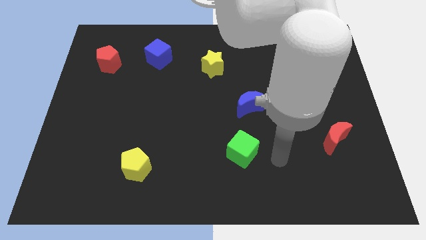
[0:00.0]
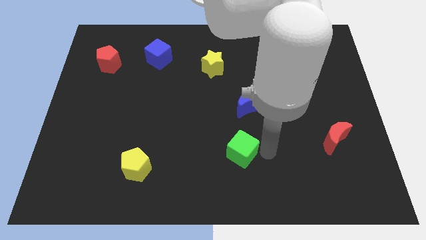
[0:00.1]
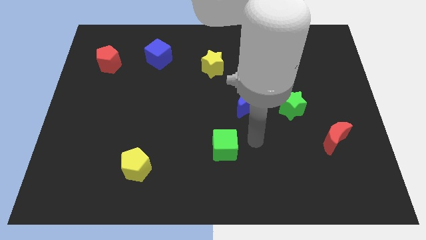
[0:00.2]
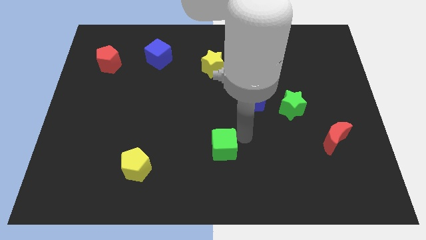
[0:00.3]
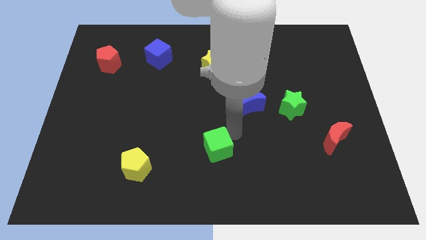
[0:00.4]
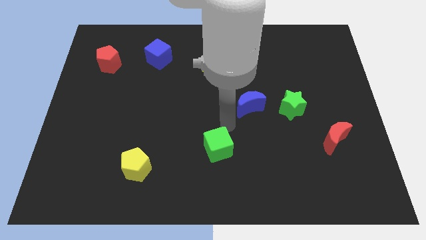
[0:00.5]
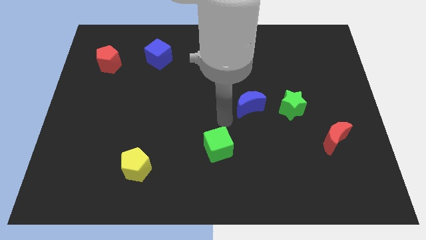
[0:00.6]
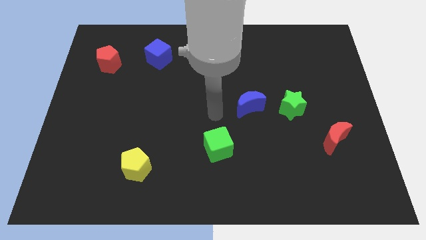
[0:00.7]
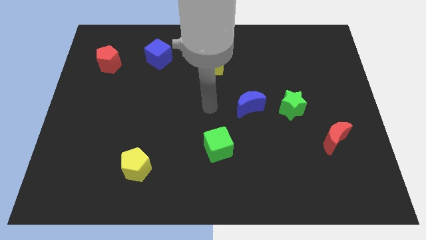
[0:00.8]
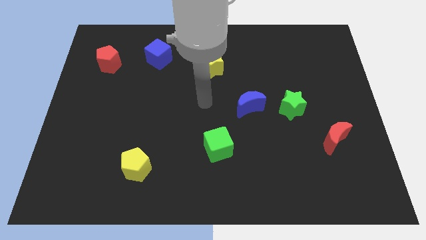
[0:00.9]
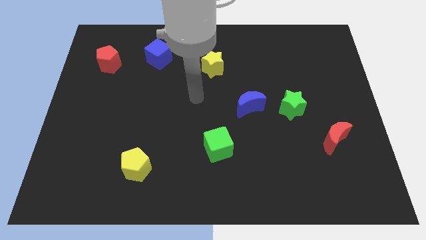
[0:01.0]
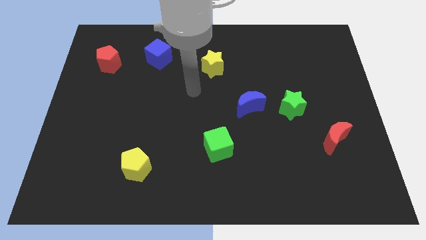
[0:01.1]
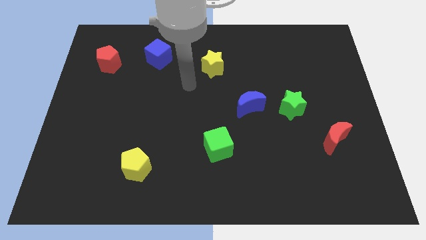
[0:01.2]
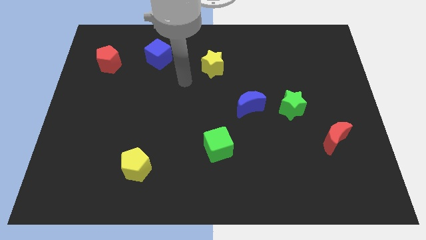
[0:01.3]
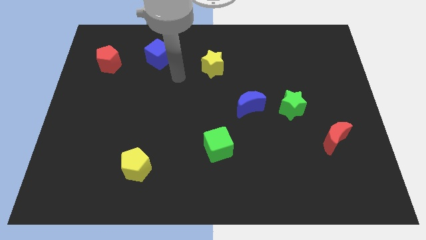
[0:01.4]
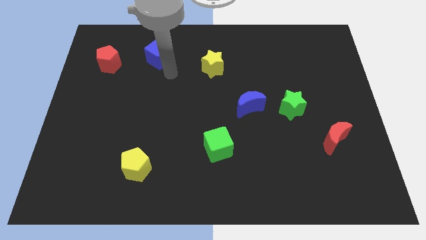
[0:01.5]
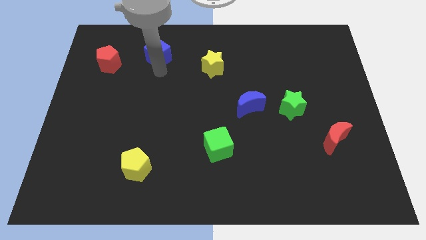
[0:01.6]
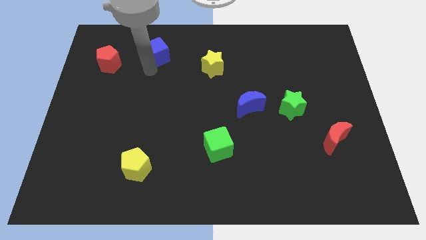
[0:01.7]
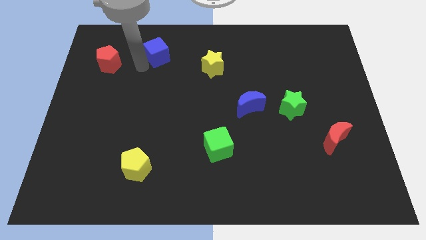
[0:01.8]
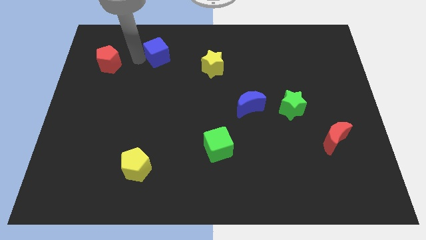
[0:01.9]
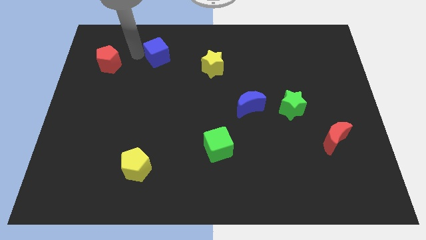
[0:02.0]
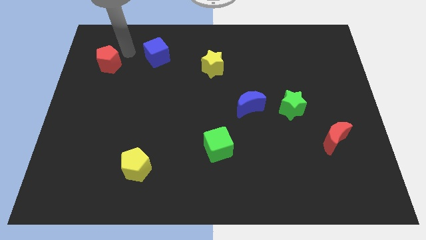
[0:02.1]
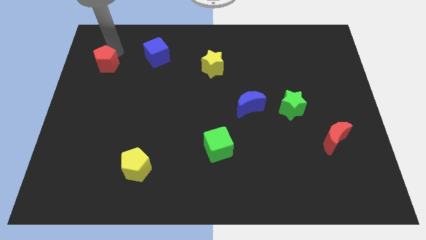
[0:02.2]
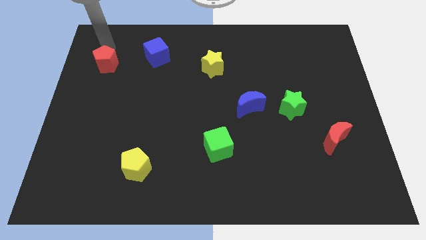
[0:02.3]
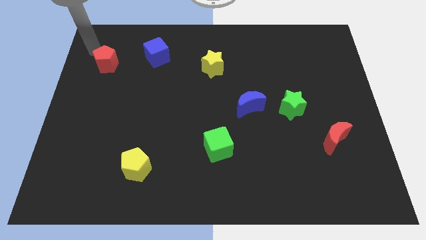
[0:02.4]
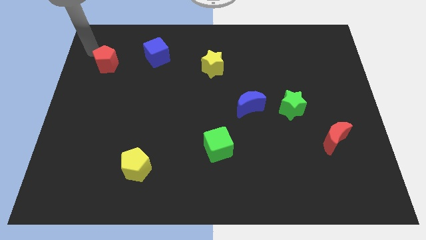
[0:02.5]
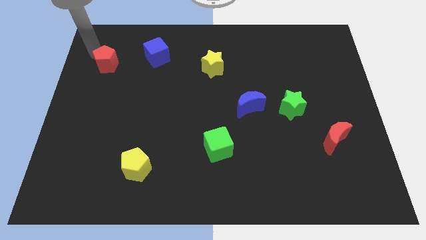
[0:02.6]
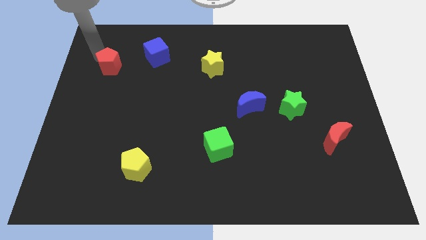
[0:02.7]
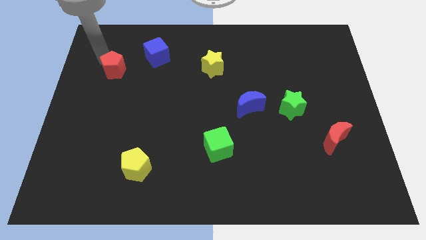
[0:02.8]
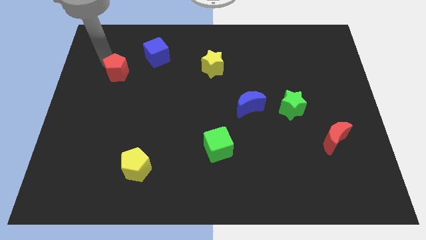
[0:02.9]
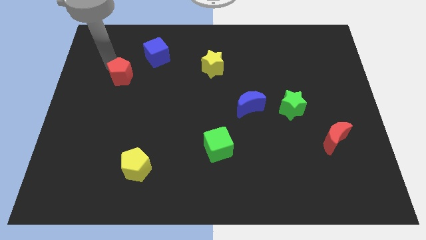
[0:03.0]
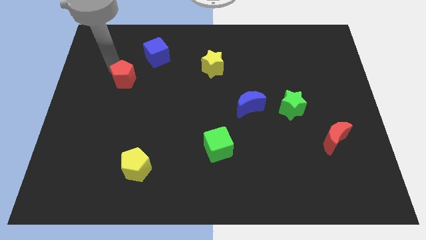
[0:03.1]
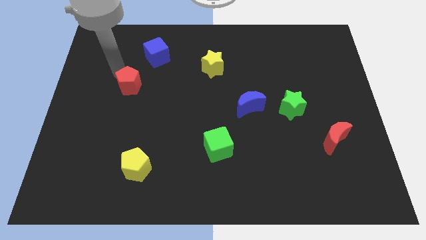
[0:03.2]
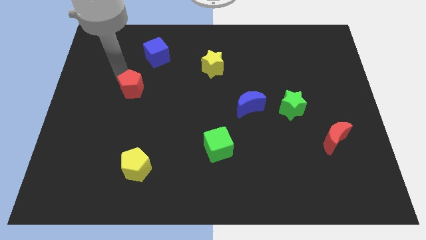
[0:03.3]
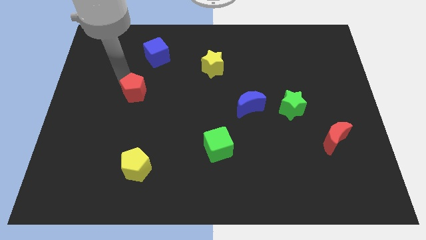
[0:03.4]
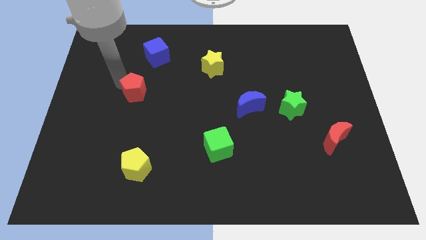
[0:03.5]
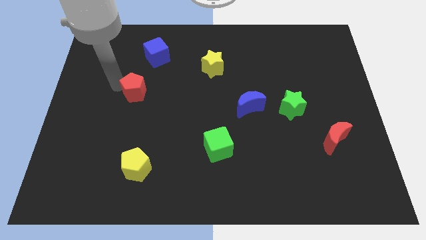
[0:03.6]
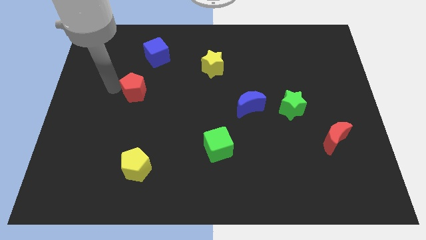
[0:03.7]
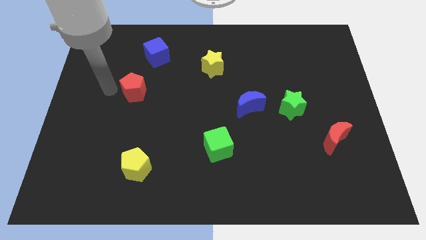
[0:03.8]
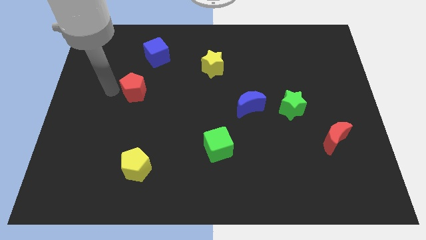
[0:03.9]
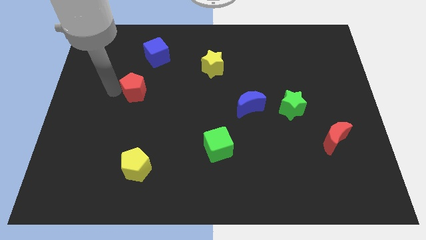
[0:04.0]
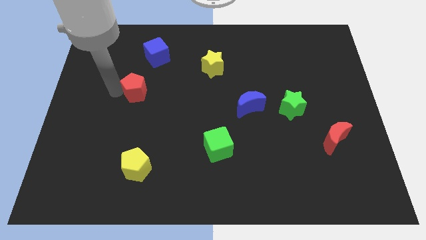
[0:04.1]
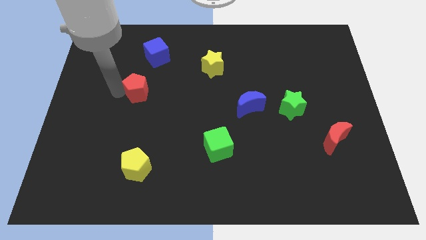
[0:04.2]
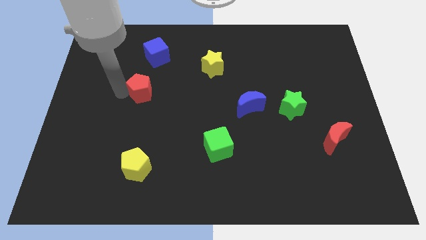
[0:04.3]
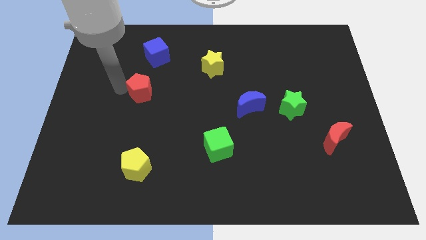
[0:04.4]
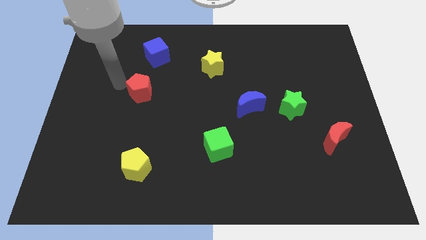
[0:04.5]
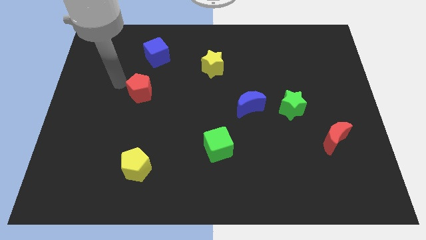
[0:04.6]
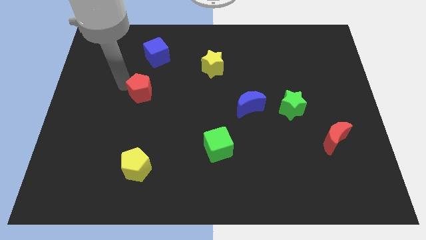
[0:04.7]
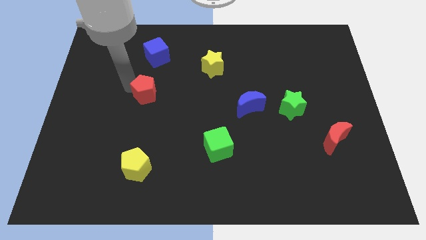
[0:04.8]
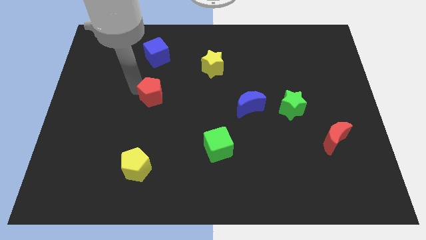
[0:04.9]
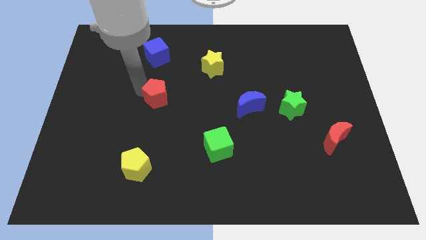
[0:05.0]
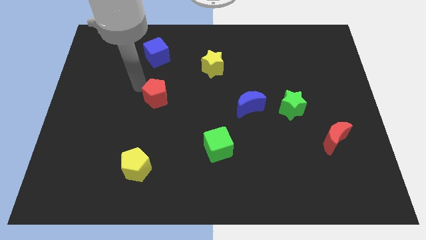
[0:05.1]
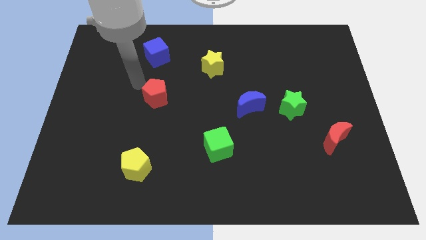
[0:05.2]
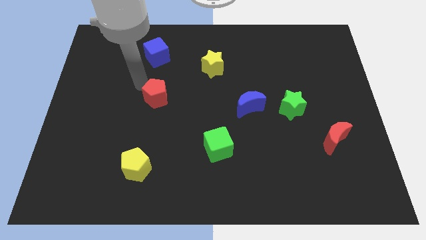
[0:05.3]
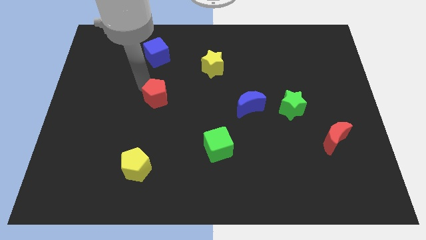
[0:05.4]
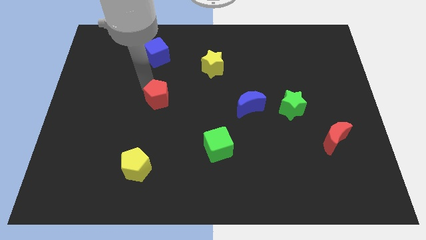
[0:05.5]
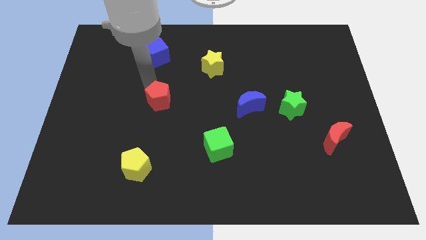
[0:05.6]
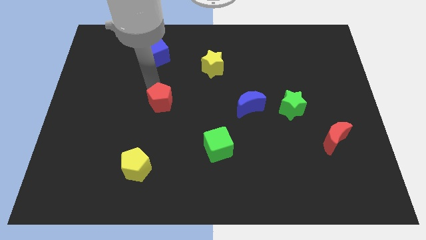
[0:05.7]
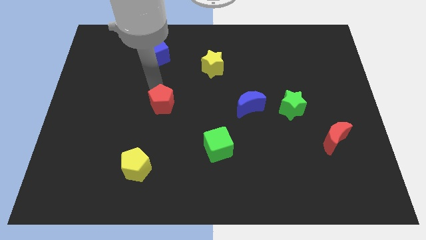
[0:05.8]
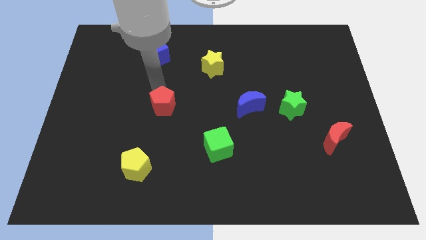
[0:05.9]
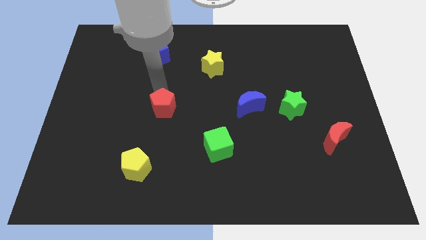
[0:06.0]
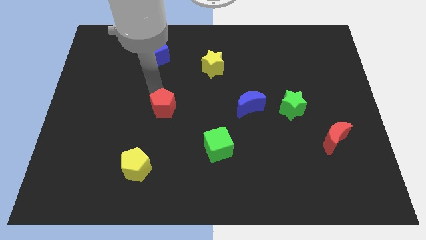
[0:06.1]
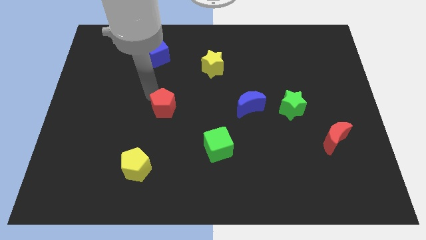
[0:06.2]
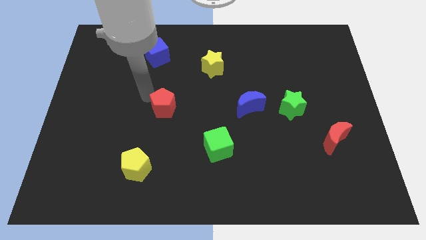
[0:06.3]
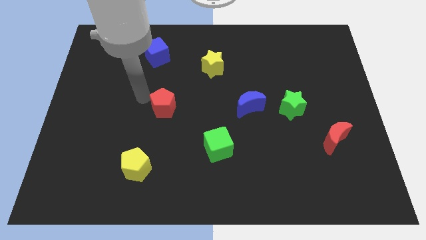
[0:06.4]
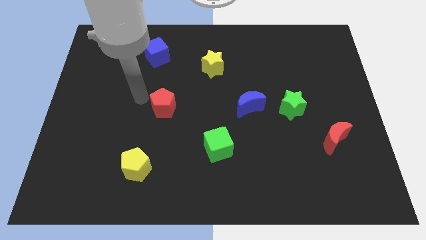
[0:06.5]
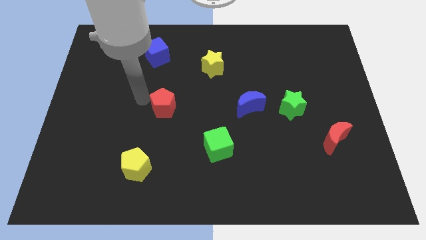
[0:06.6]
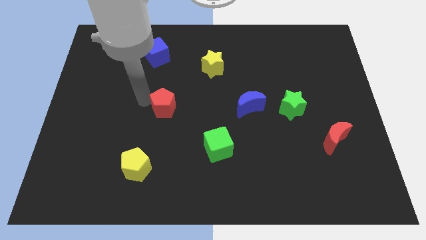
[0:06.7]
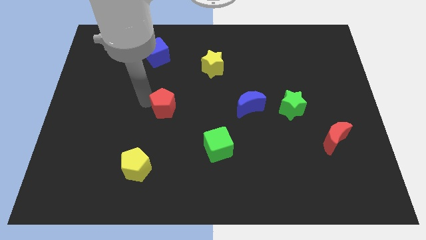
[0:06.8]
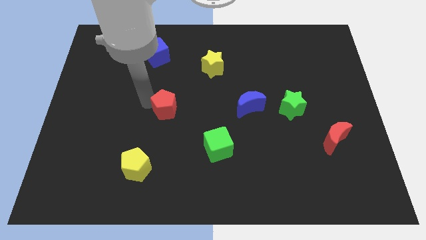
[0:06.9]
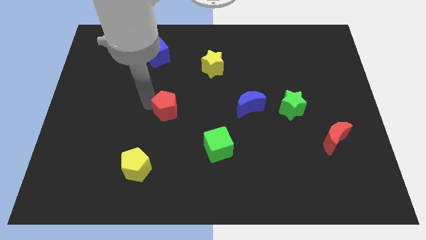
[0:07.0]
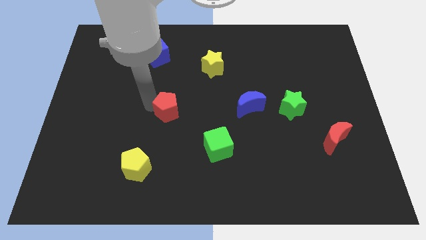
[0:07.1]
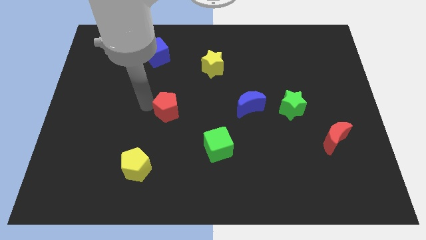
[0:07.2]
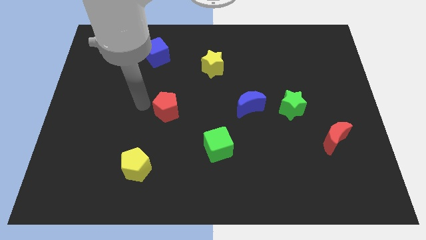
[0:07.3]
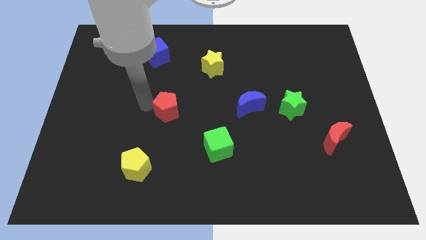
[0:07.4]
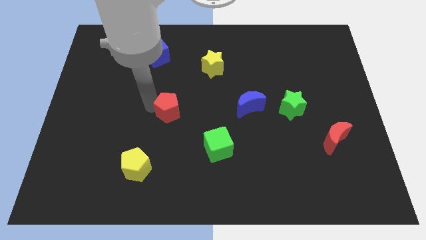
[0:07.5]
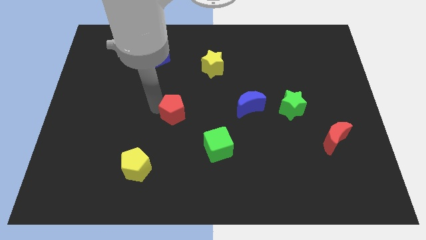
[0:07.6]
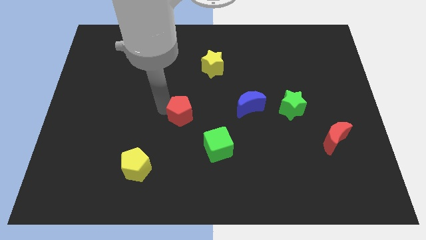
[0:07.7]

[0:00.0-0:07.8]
slide the red pentagon to the top left of the green cube
